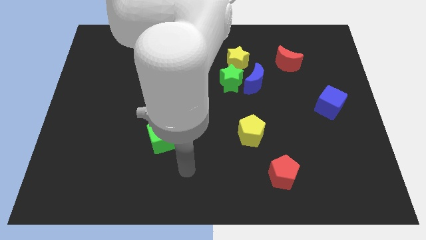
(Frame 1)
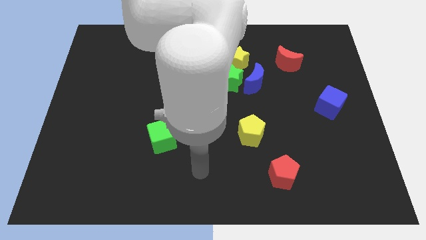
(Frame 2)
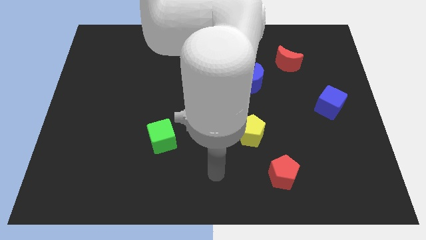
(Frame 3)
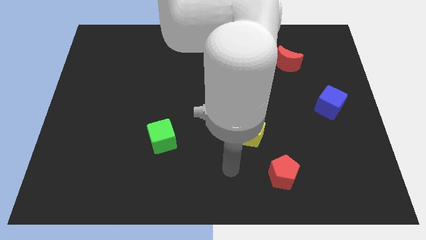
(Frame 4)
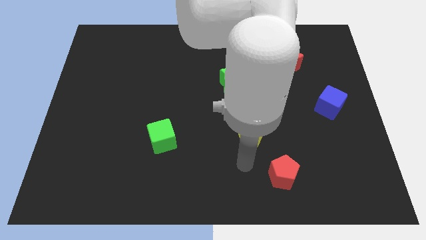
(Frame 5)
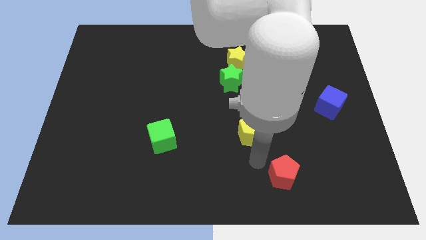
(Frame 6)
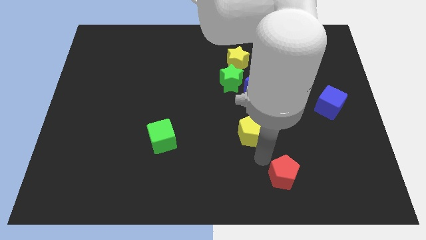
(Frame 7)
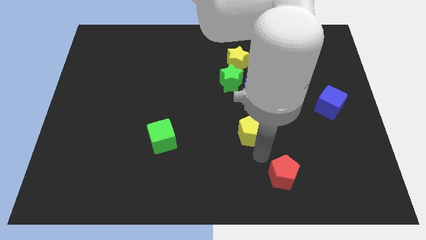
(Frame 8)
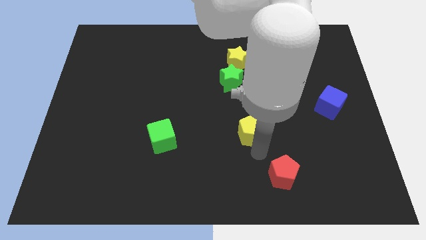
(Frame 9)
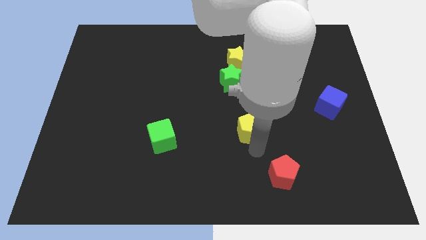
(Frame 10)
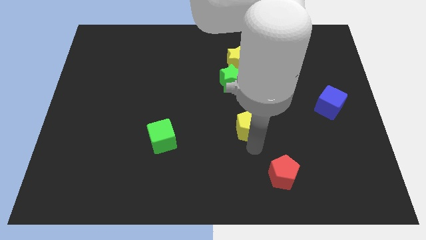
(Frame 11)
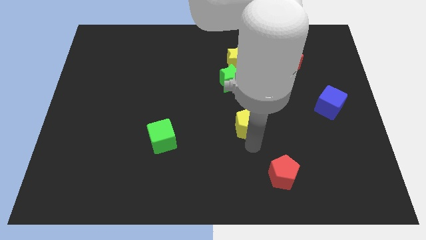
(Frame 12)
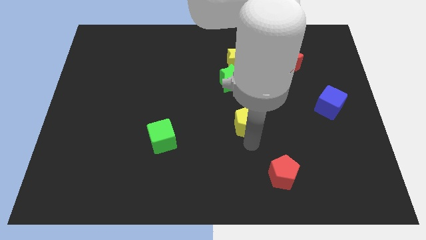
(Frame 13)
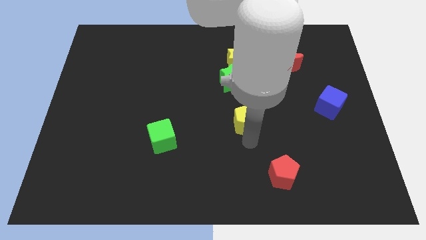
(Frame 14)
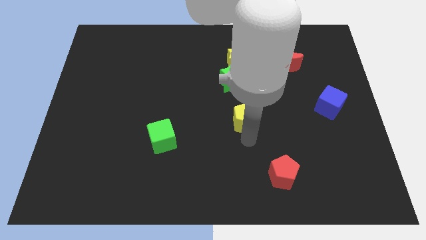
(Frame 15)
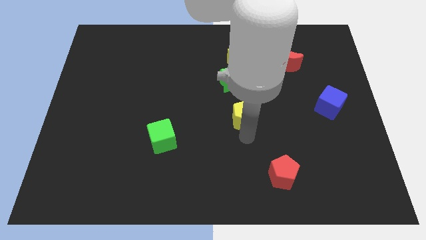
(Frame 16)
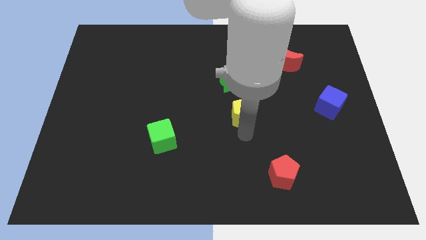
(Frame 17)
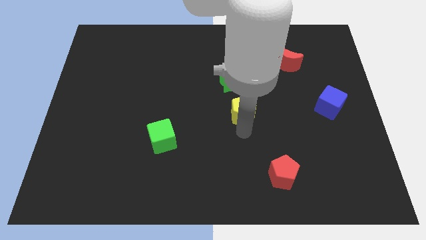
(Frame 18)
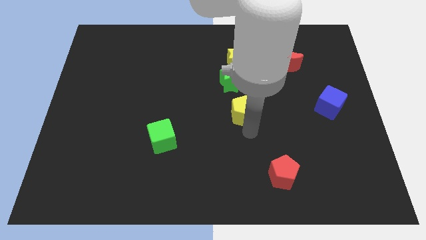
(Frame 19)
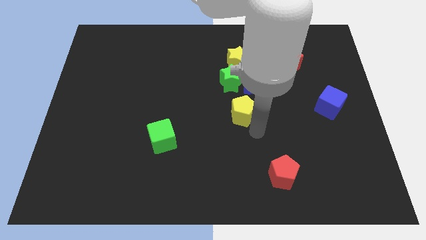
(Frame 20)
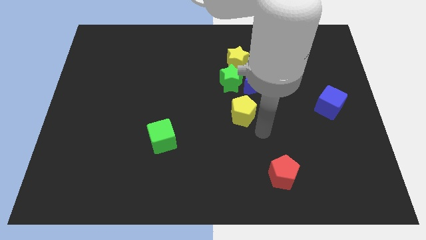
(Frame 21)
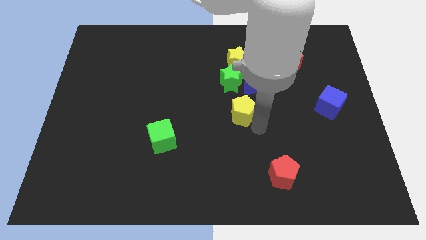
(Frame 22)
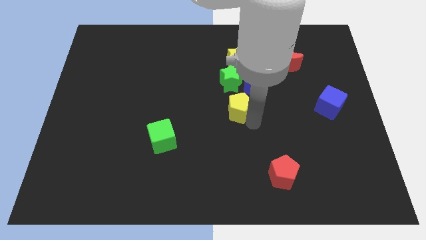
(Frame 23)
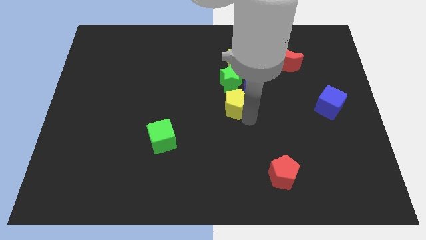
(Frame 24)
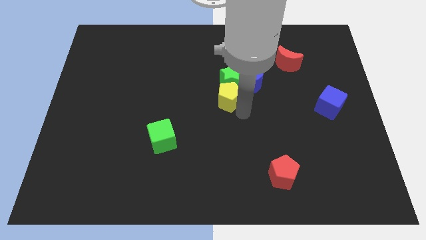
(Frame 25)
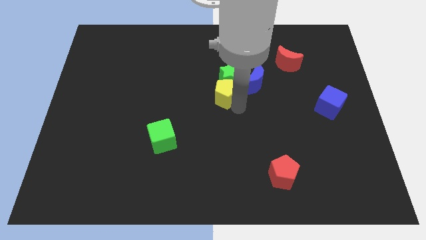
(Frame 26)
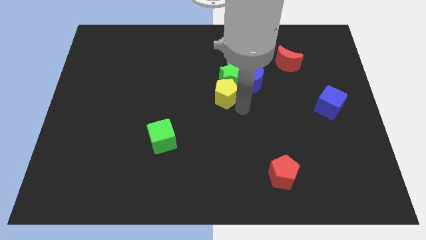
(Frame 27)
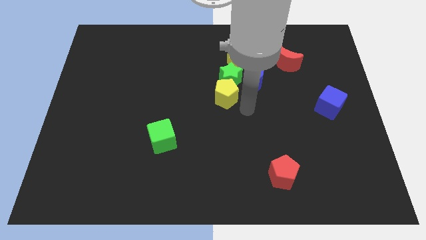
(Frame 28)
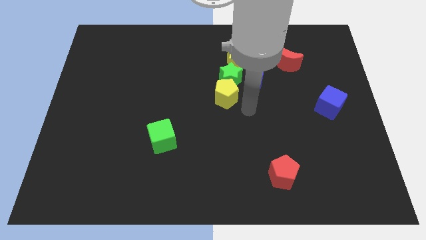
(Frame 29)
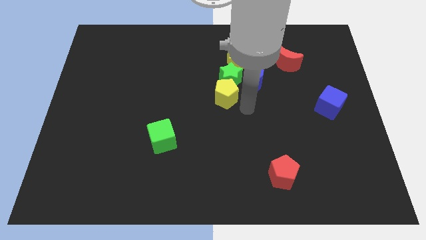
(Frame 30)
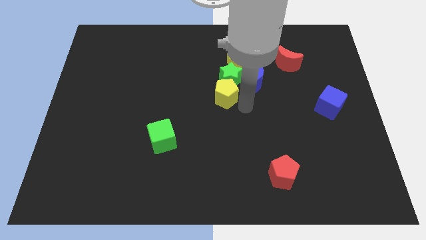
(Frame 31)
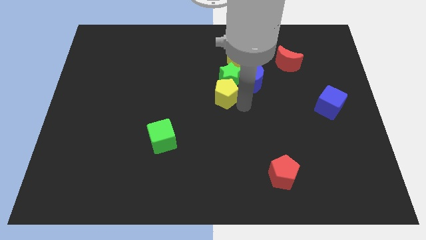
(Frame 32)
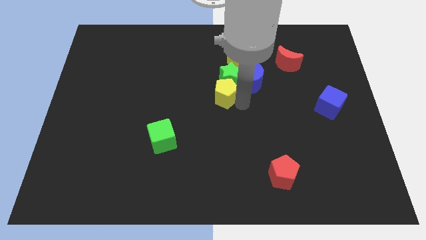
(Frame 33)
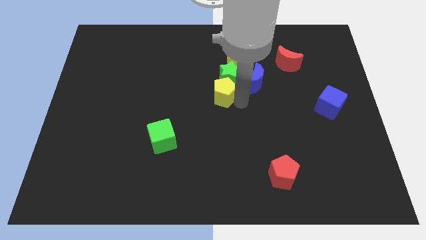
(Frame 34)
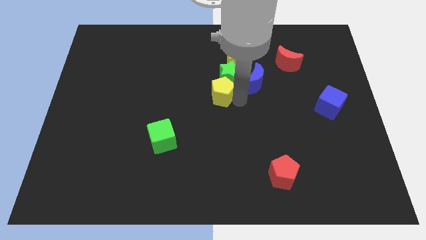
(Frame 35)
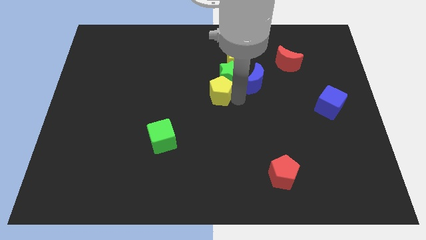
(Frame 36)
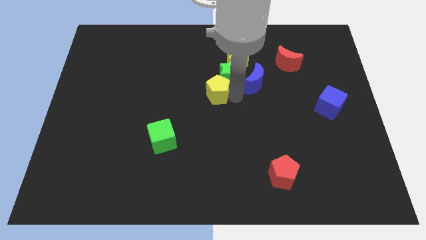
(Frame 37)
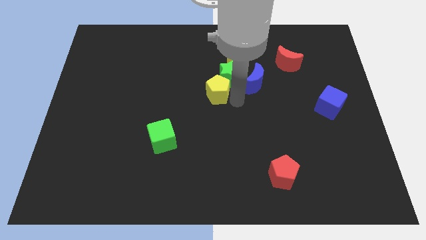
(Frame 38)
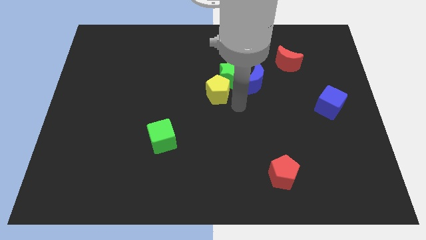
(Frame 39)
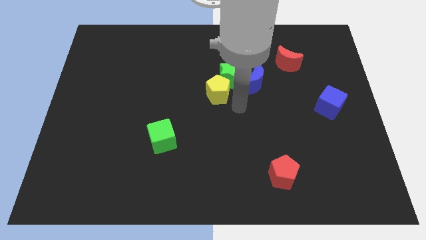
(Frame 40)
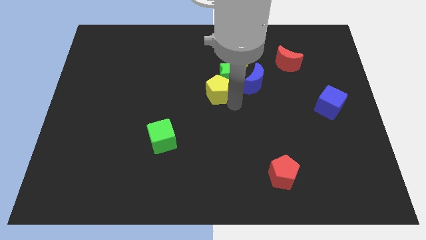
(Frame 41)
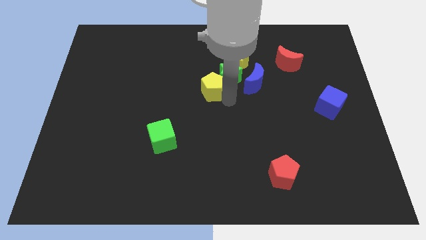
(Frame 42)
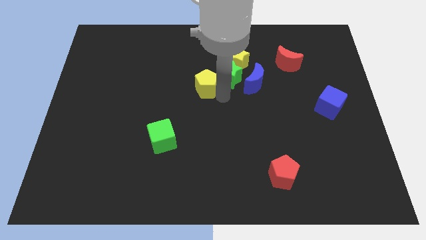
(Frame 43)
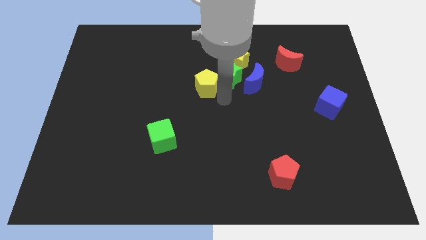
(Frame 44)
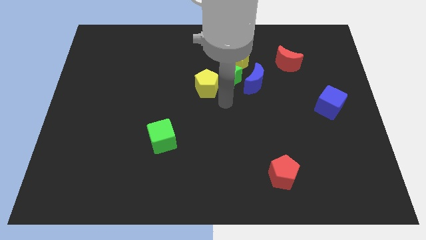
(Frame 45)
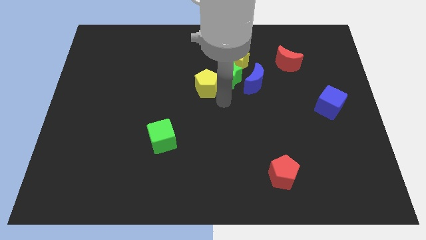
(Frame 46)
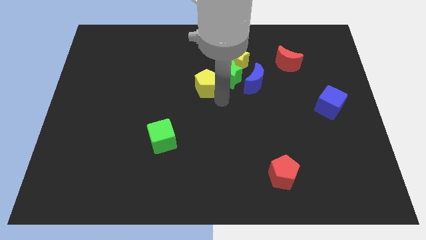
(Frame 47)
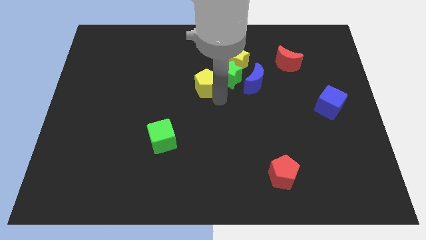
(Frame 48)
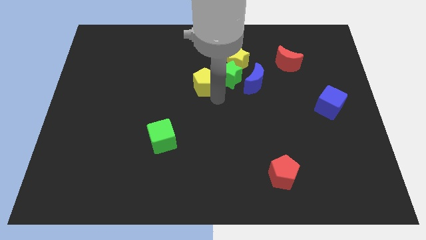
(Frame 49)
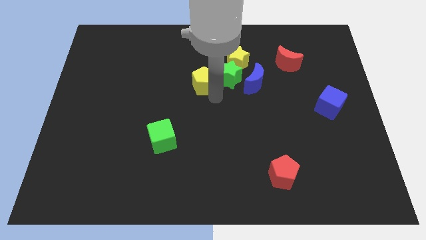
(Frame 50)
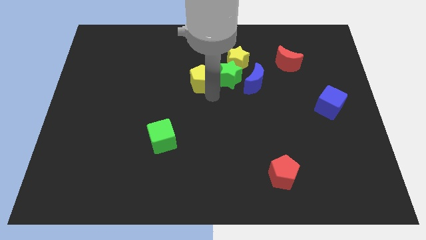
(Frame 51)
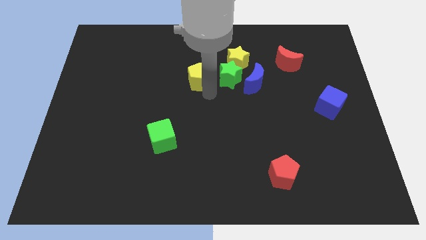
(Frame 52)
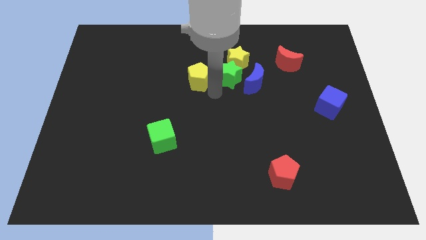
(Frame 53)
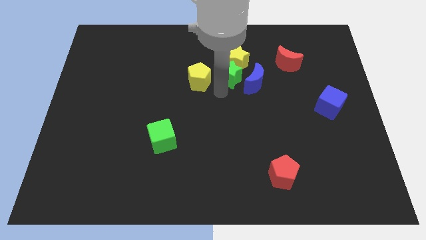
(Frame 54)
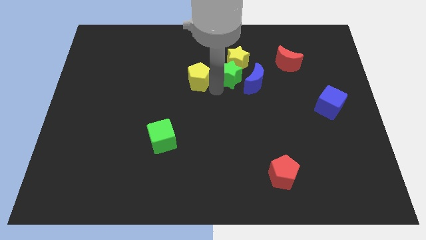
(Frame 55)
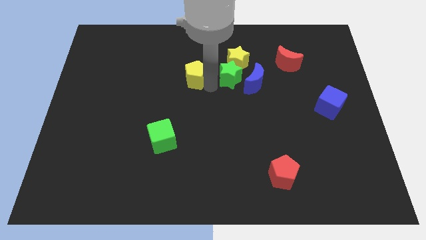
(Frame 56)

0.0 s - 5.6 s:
push the yellow pentagon upwards and left

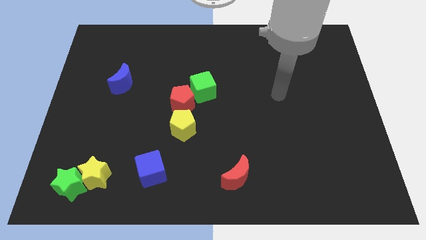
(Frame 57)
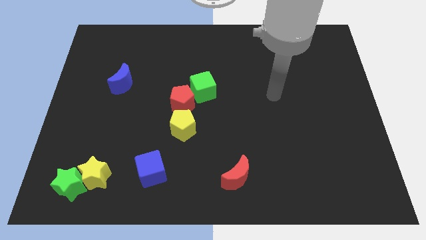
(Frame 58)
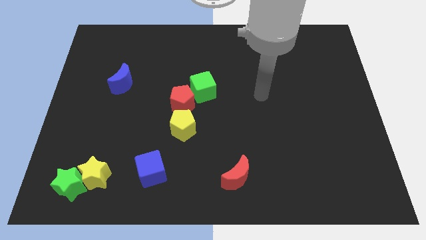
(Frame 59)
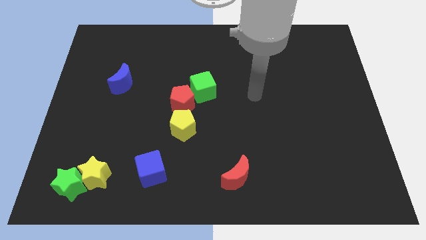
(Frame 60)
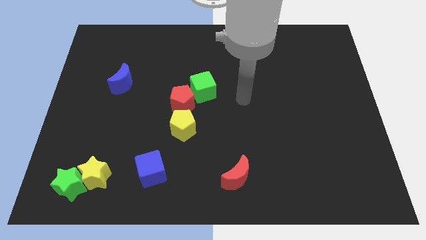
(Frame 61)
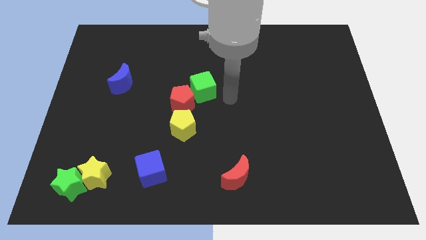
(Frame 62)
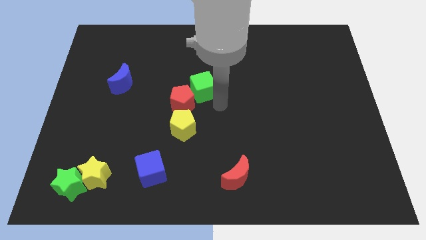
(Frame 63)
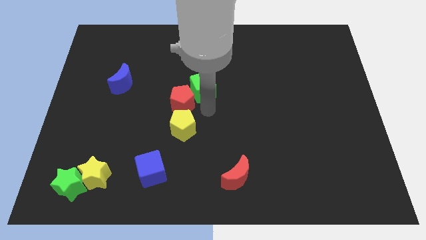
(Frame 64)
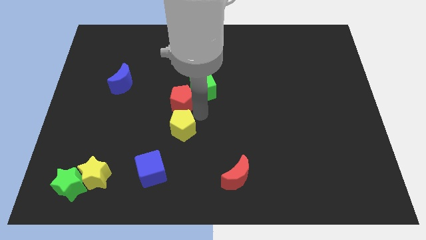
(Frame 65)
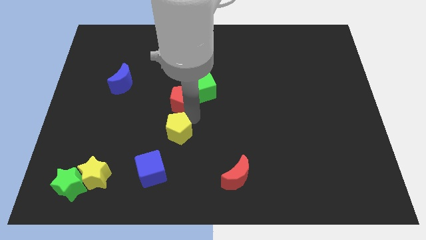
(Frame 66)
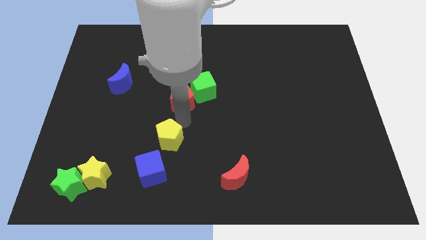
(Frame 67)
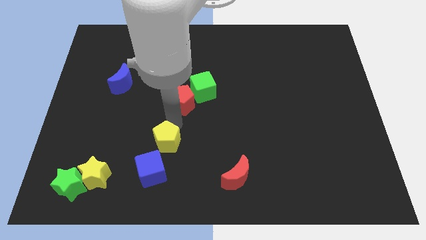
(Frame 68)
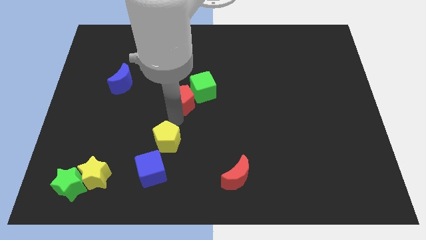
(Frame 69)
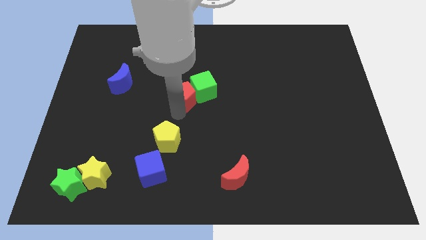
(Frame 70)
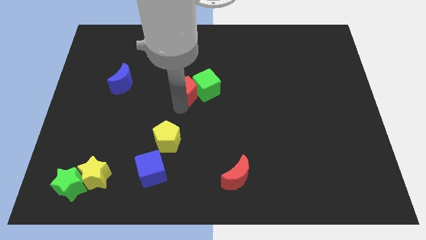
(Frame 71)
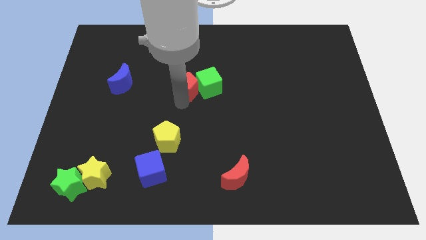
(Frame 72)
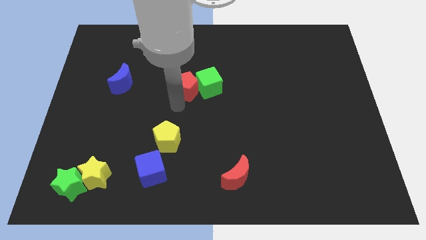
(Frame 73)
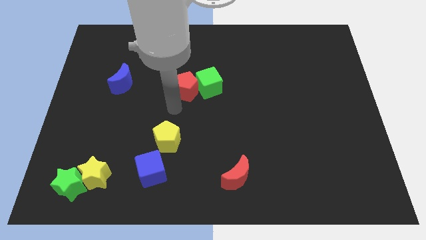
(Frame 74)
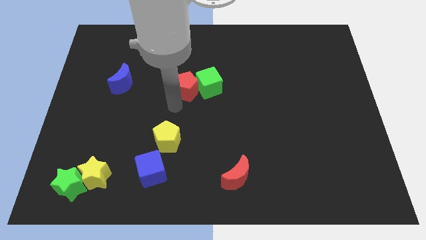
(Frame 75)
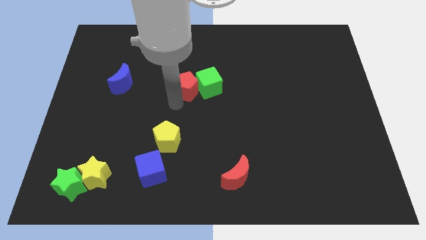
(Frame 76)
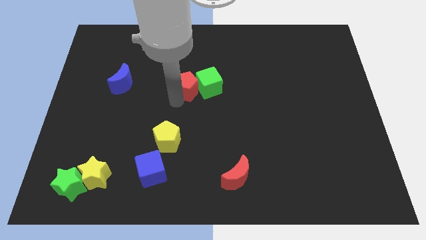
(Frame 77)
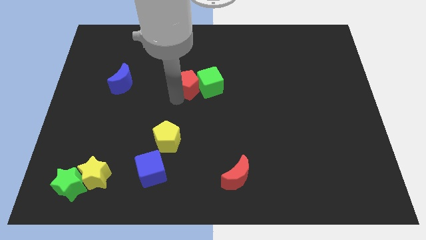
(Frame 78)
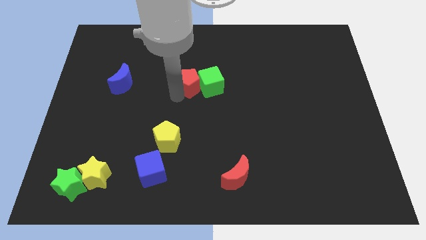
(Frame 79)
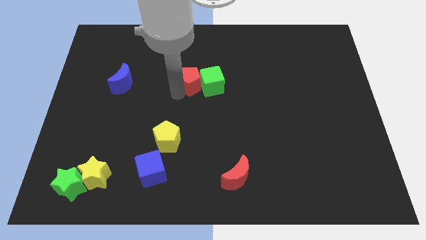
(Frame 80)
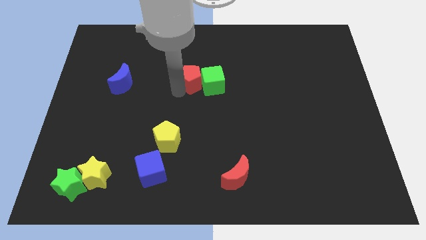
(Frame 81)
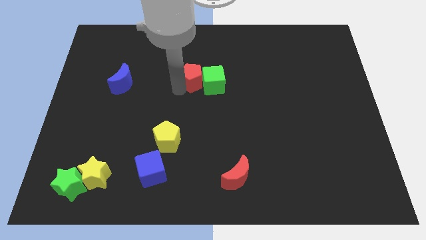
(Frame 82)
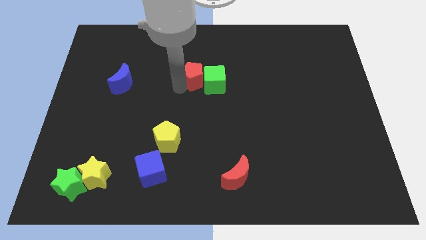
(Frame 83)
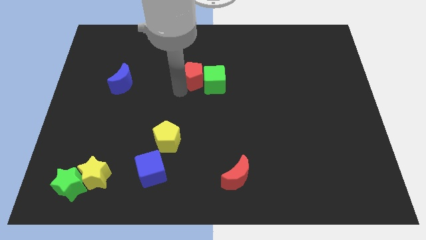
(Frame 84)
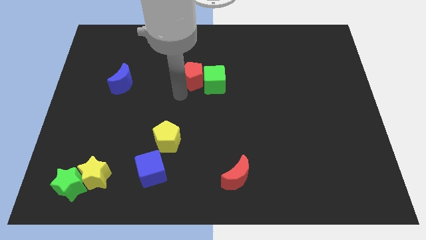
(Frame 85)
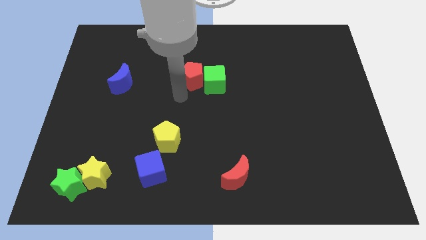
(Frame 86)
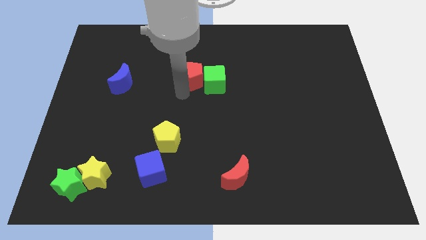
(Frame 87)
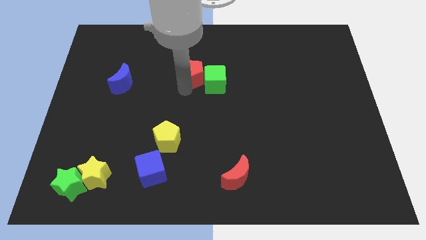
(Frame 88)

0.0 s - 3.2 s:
push the red pentagon a bit upwards and to the right
